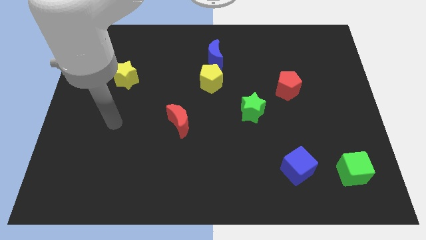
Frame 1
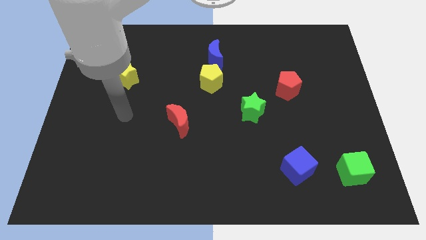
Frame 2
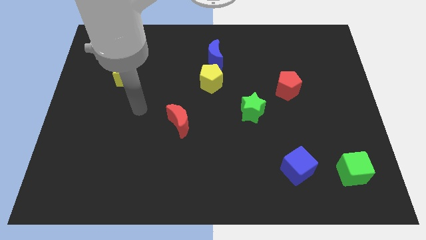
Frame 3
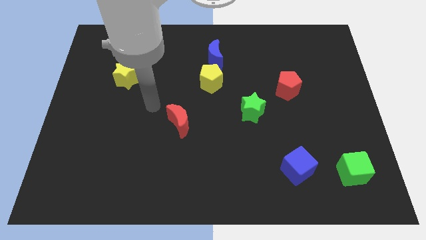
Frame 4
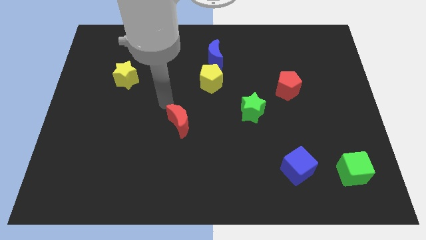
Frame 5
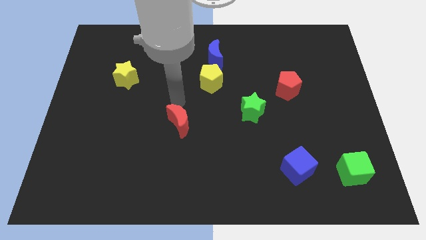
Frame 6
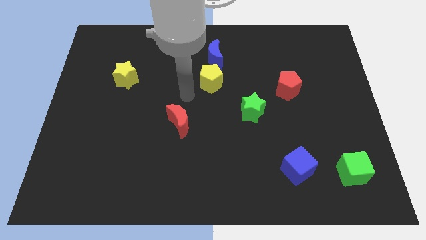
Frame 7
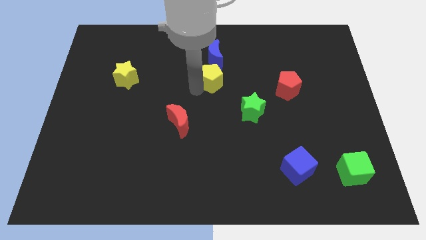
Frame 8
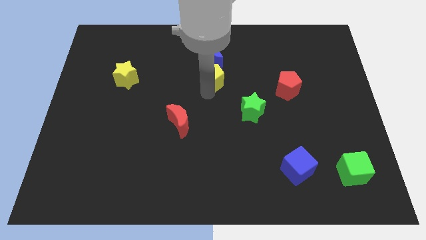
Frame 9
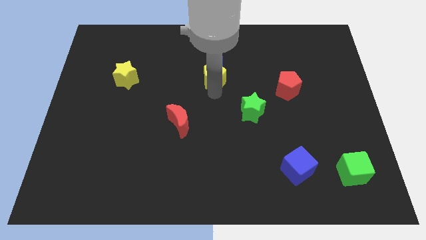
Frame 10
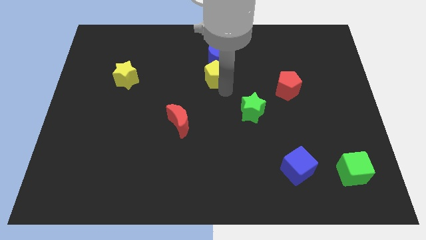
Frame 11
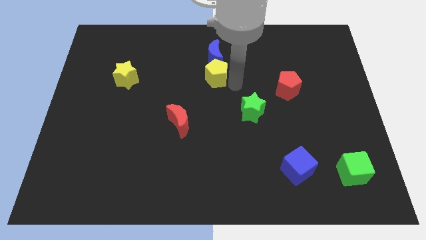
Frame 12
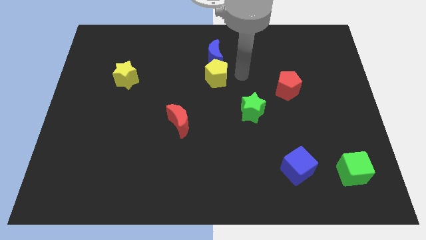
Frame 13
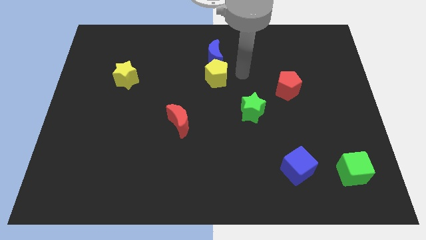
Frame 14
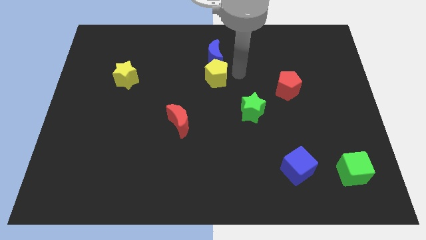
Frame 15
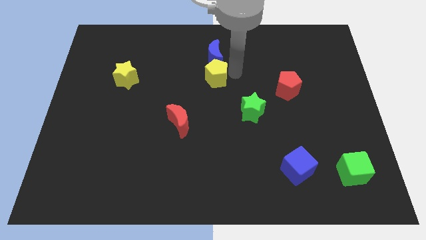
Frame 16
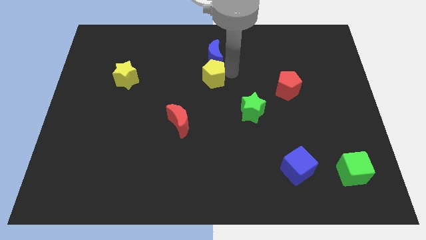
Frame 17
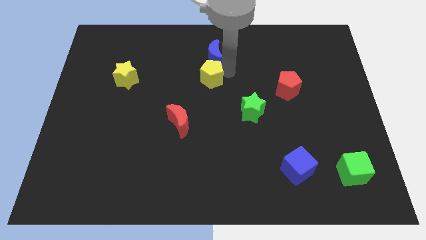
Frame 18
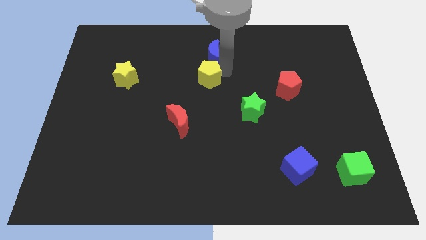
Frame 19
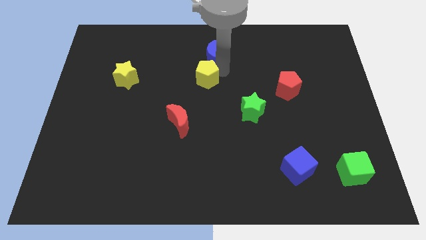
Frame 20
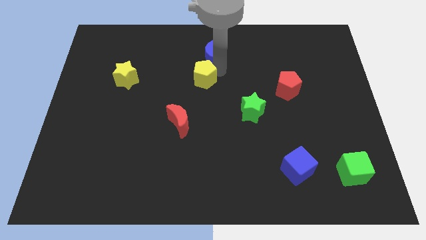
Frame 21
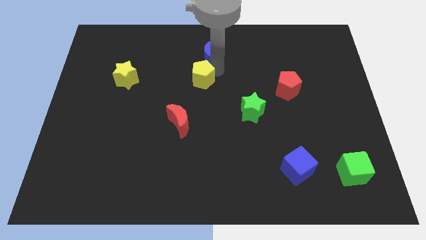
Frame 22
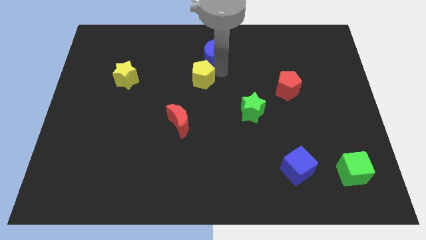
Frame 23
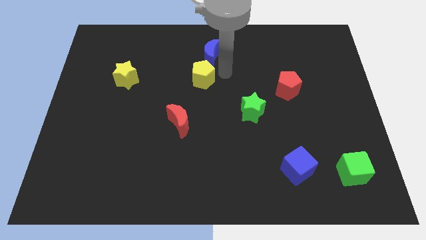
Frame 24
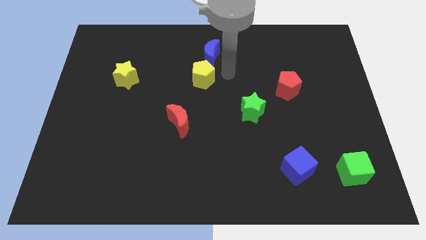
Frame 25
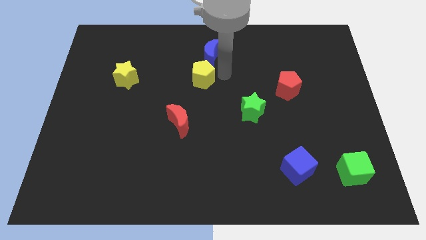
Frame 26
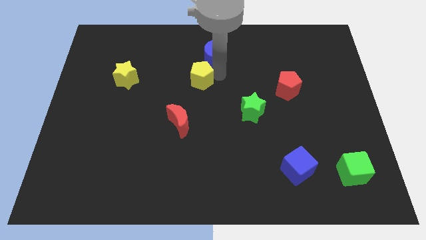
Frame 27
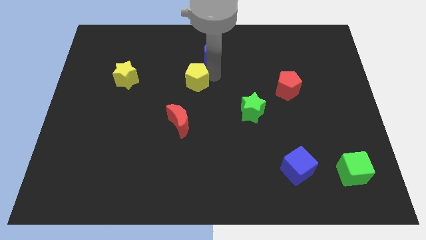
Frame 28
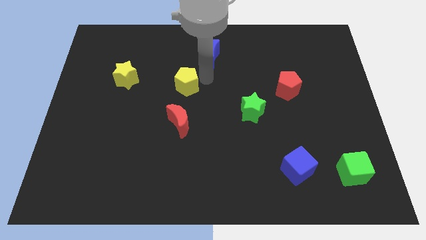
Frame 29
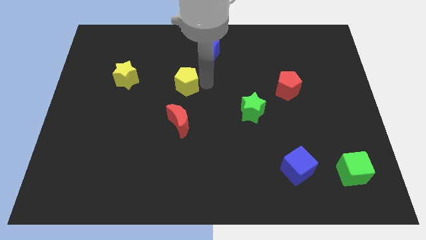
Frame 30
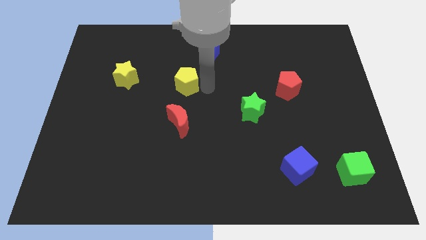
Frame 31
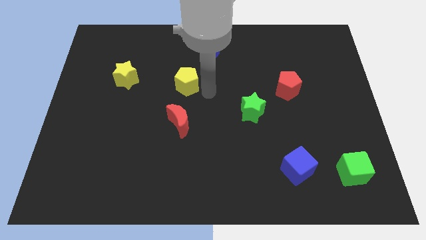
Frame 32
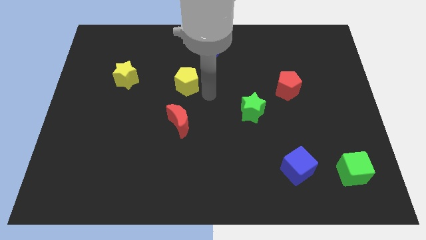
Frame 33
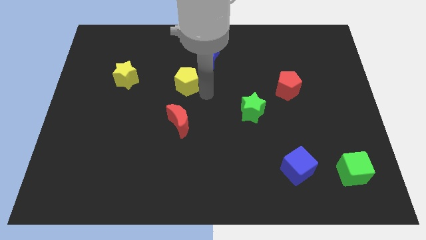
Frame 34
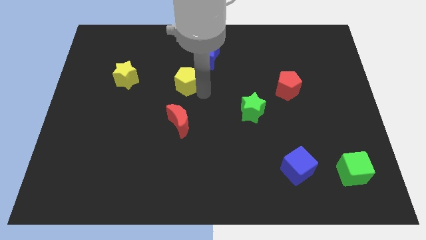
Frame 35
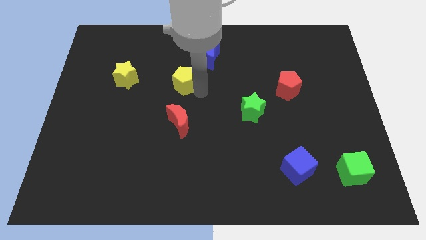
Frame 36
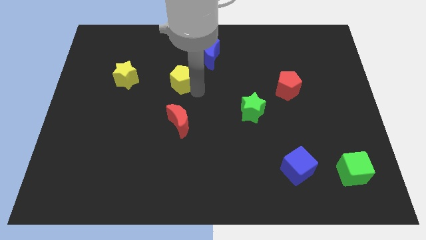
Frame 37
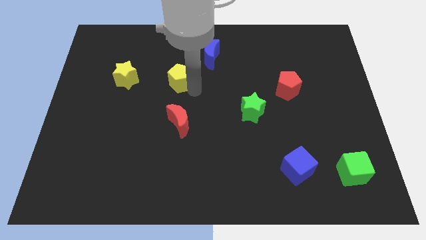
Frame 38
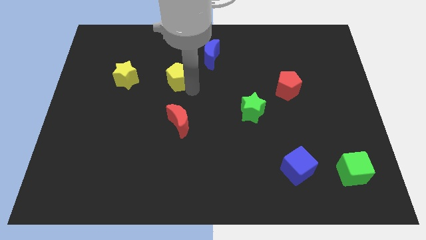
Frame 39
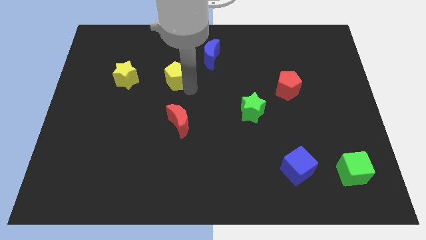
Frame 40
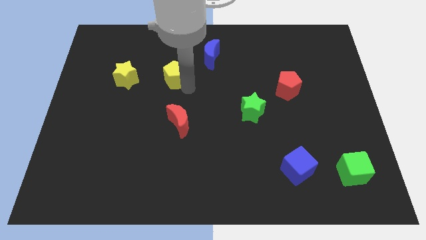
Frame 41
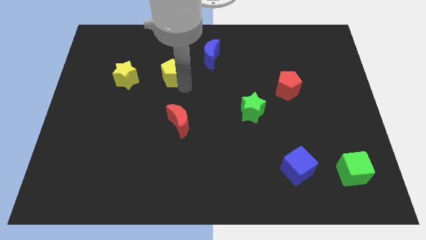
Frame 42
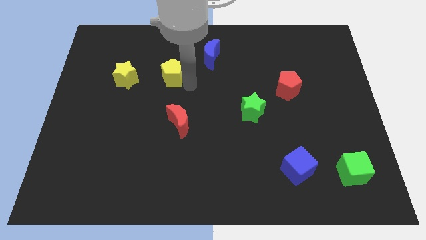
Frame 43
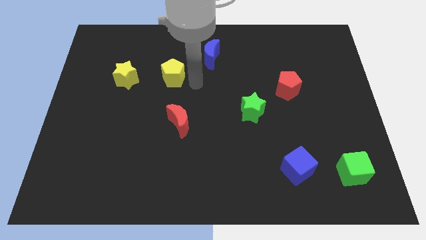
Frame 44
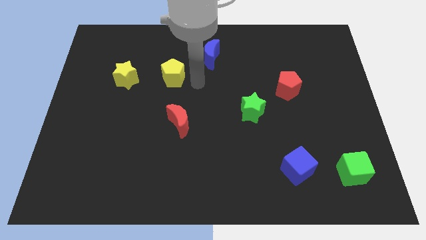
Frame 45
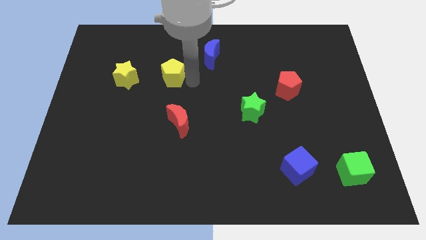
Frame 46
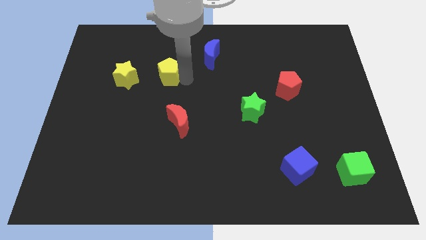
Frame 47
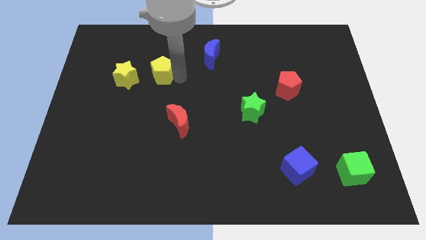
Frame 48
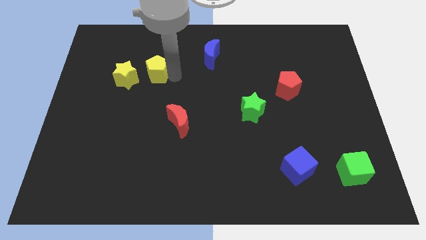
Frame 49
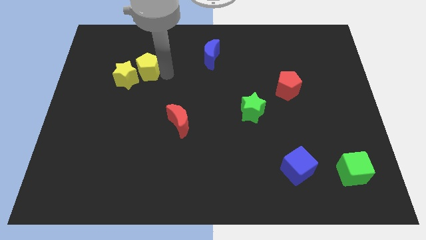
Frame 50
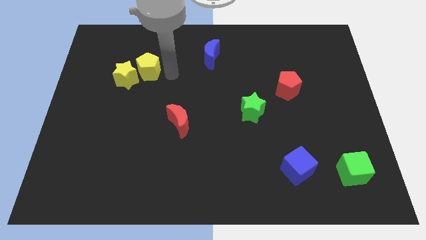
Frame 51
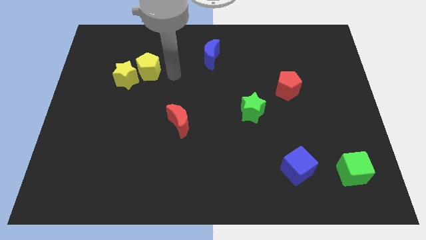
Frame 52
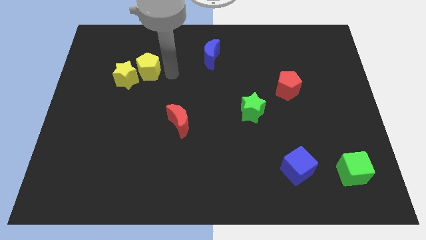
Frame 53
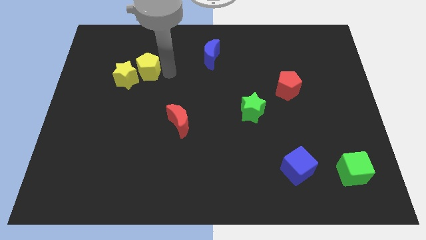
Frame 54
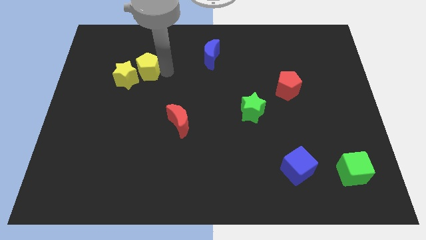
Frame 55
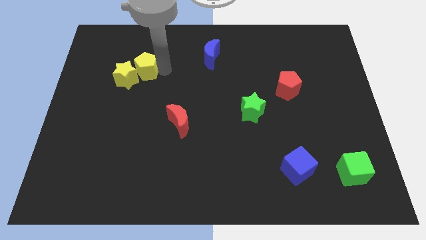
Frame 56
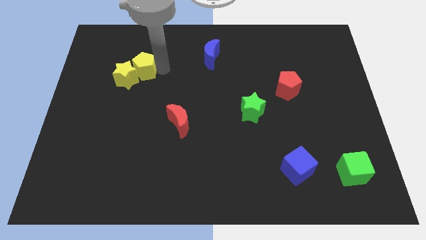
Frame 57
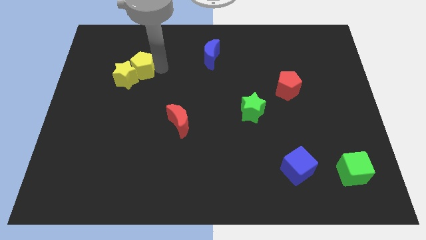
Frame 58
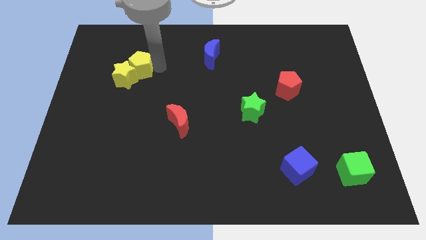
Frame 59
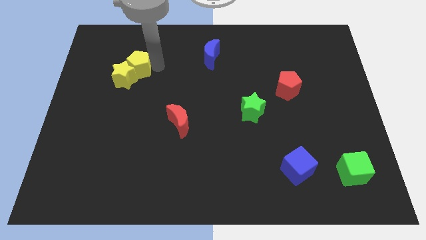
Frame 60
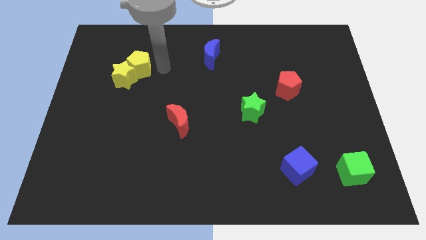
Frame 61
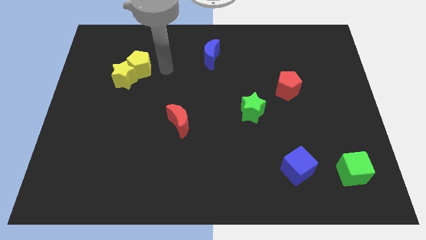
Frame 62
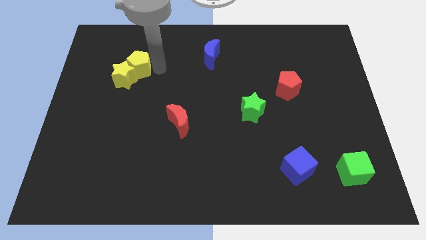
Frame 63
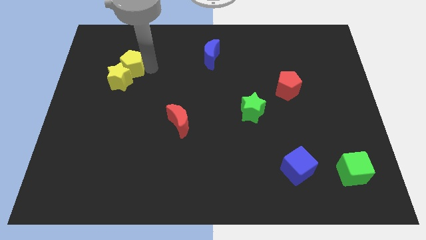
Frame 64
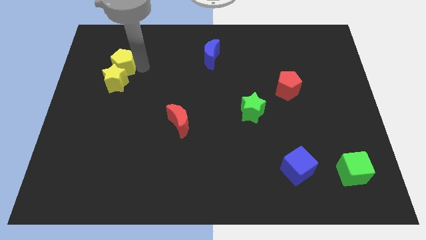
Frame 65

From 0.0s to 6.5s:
slide the yellow pentagon to the top left side of the yellow star

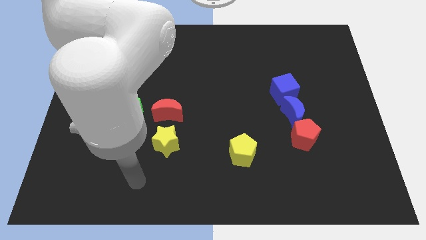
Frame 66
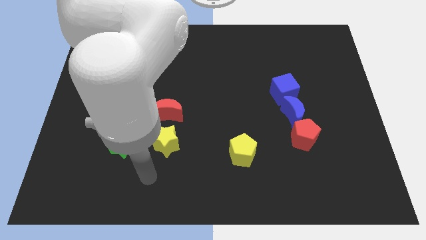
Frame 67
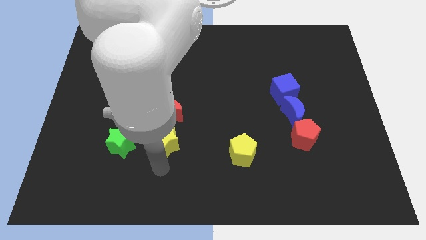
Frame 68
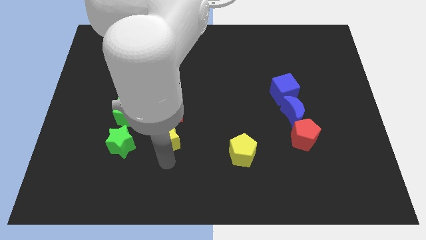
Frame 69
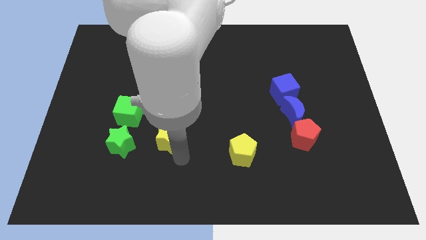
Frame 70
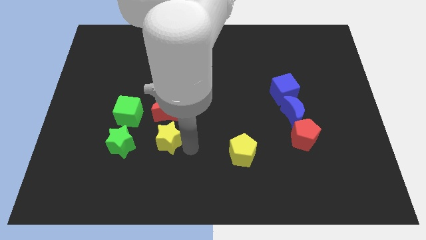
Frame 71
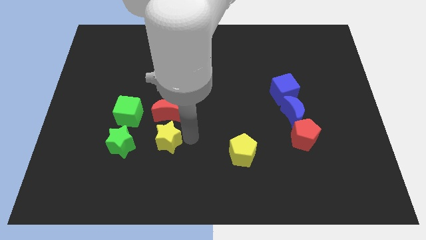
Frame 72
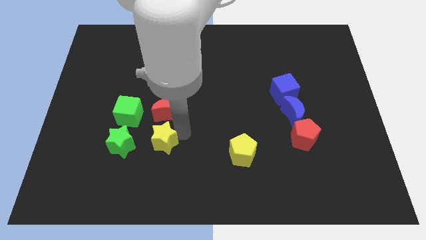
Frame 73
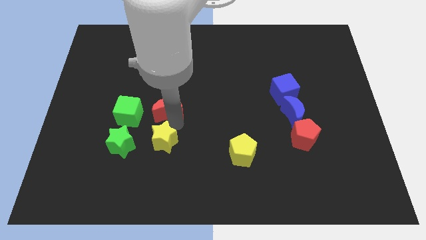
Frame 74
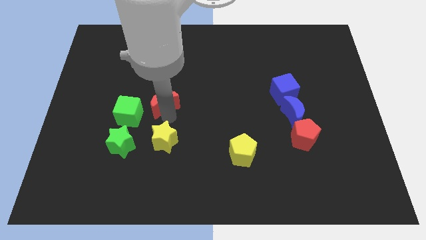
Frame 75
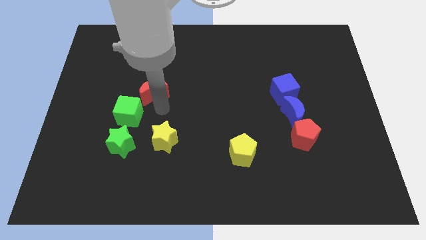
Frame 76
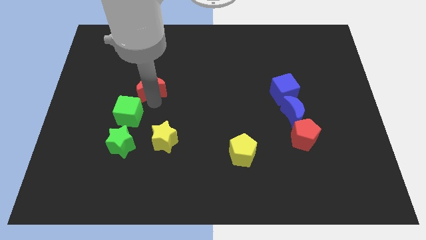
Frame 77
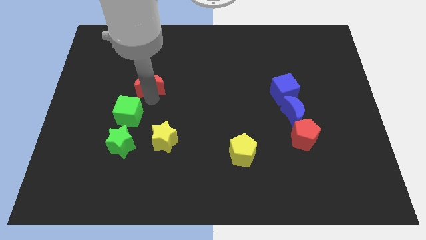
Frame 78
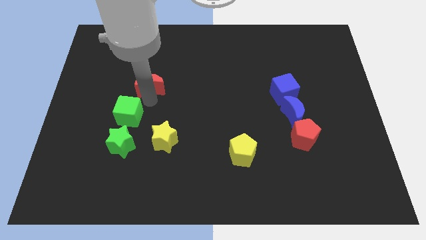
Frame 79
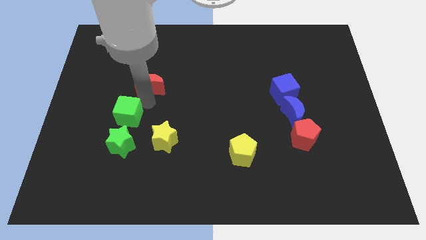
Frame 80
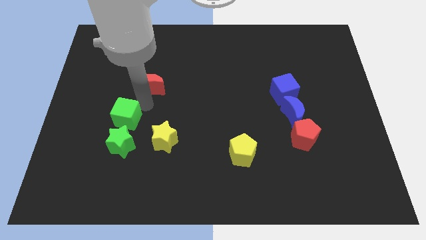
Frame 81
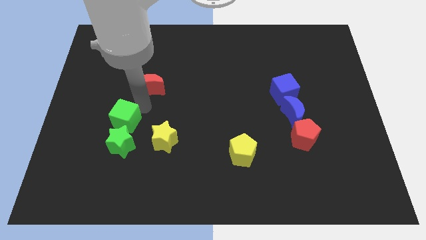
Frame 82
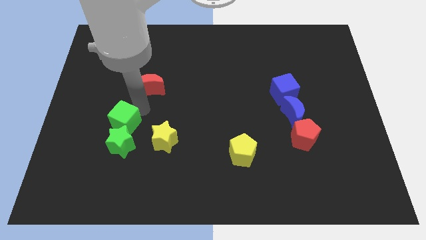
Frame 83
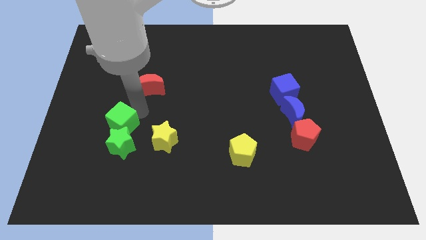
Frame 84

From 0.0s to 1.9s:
put the green cube just left of the yellow star
